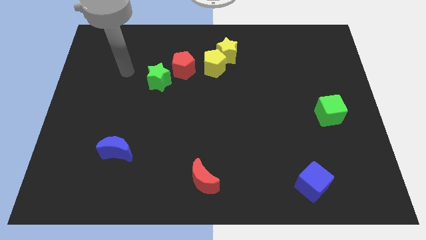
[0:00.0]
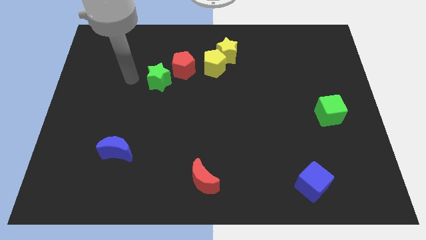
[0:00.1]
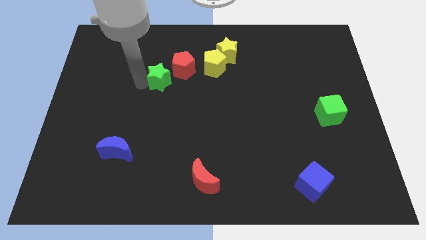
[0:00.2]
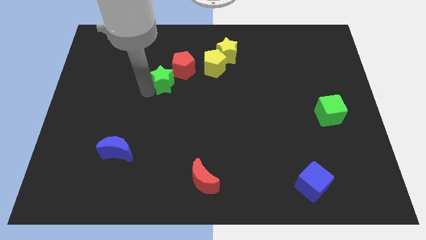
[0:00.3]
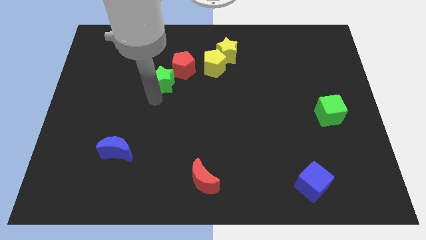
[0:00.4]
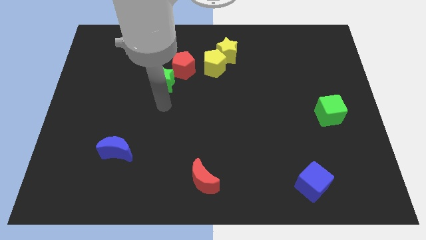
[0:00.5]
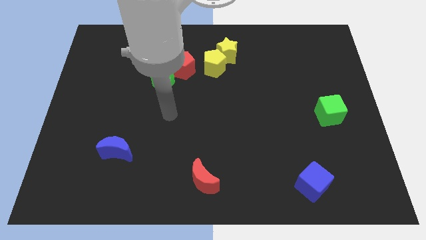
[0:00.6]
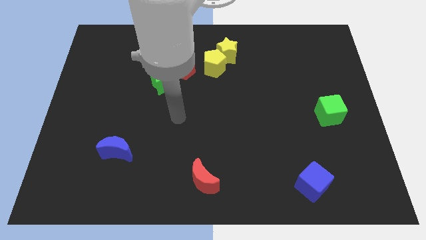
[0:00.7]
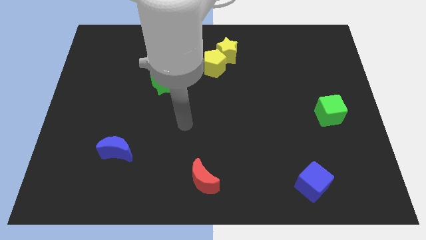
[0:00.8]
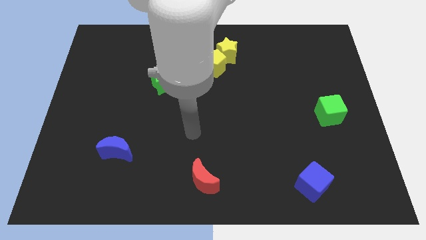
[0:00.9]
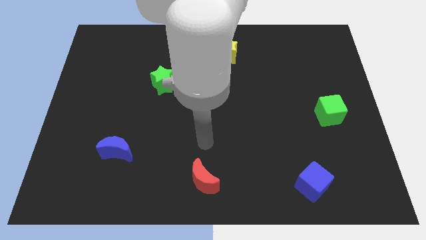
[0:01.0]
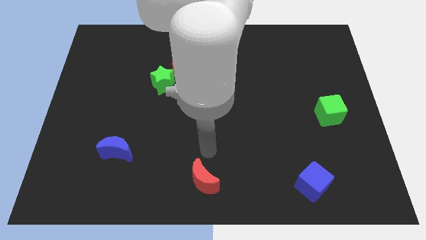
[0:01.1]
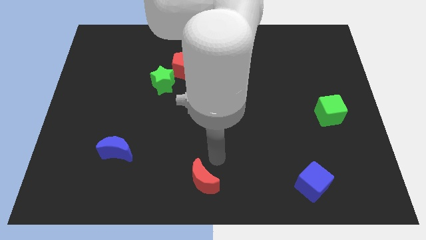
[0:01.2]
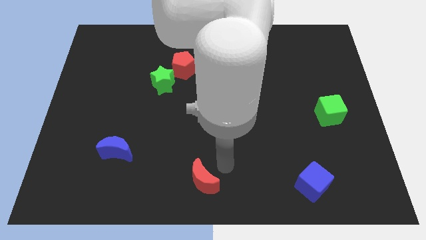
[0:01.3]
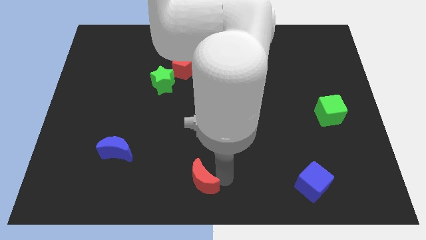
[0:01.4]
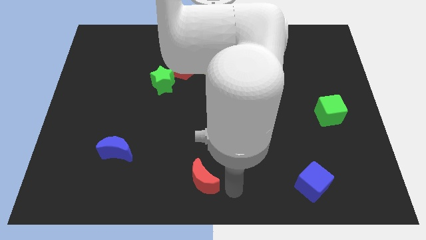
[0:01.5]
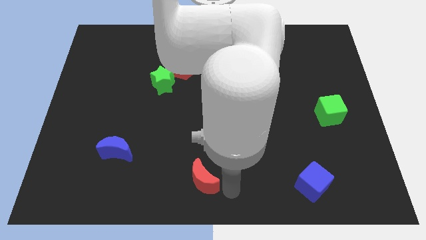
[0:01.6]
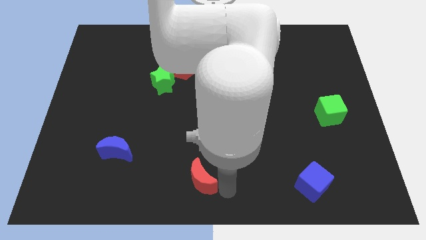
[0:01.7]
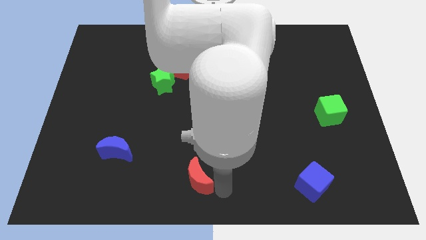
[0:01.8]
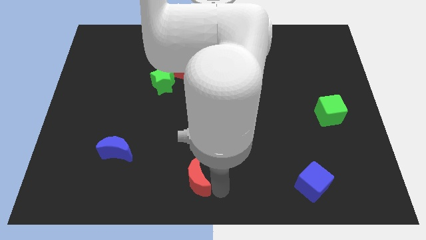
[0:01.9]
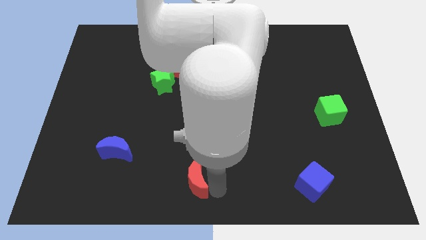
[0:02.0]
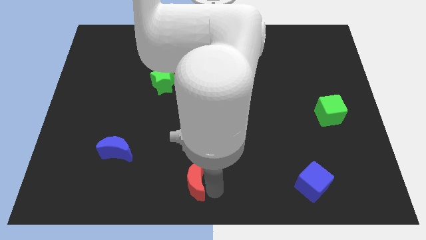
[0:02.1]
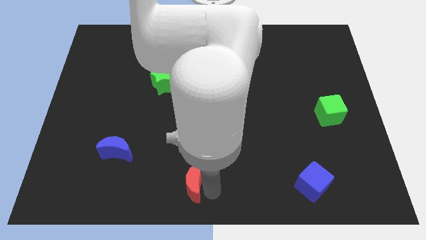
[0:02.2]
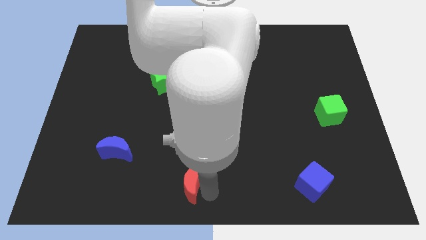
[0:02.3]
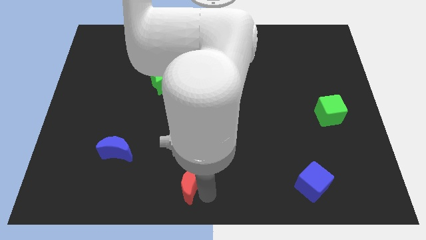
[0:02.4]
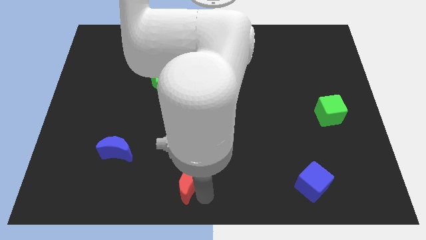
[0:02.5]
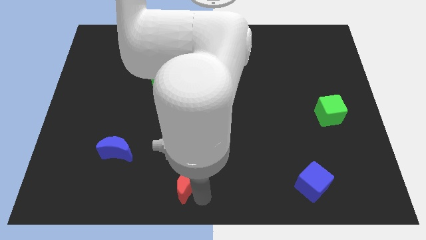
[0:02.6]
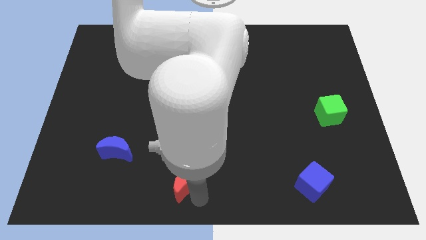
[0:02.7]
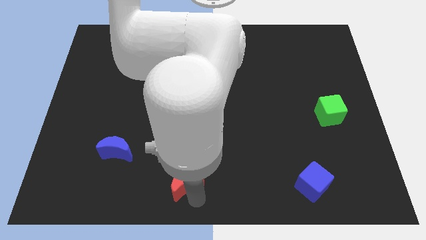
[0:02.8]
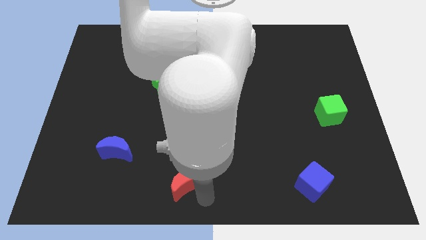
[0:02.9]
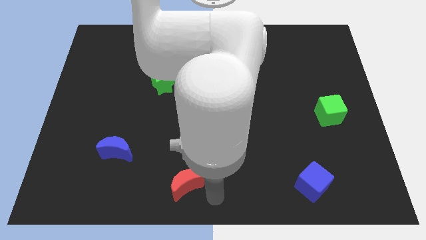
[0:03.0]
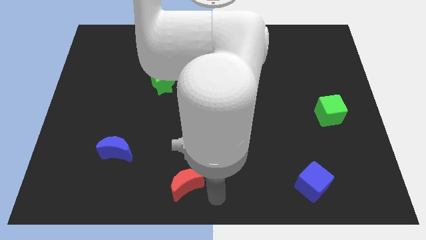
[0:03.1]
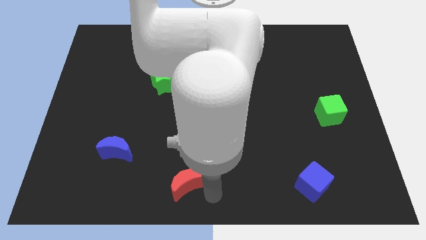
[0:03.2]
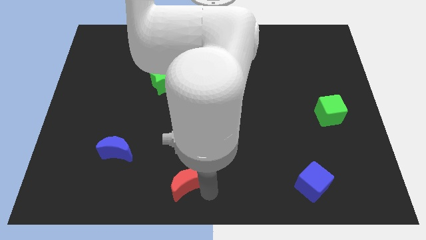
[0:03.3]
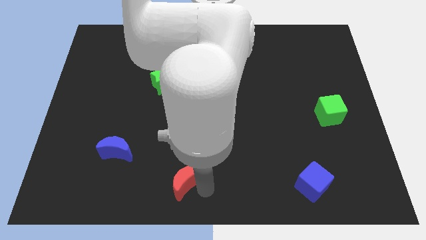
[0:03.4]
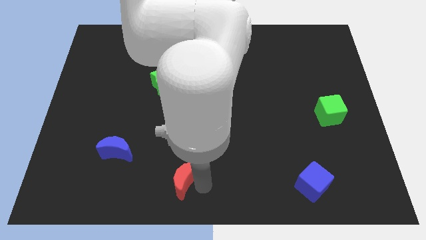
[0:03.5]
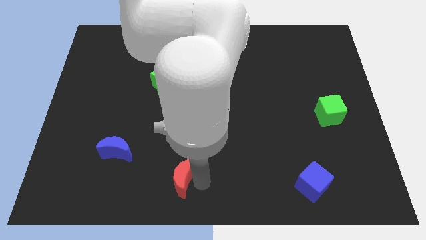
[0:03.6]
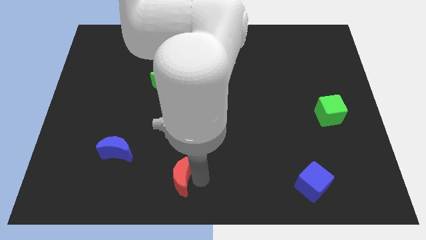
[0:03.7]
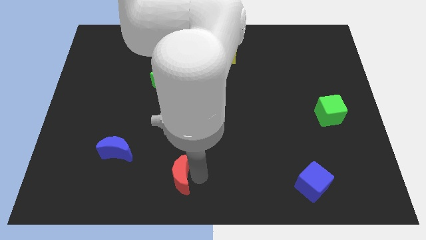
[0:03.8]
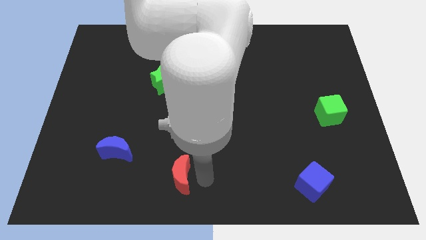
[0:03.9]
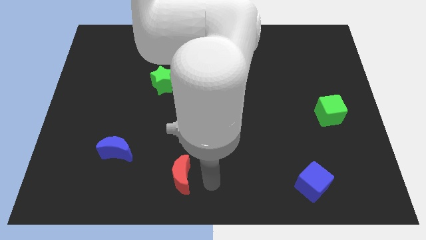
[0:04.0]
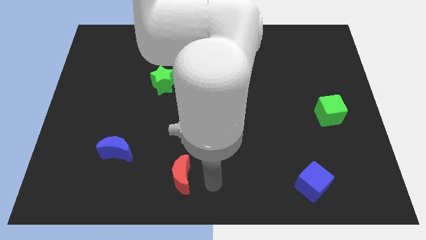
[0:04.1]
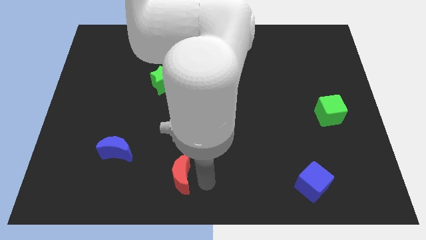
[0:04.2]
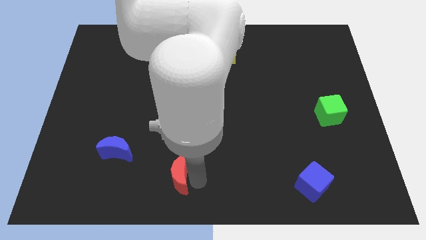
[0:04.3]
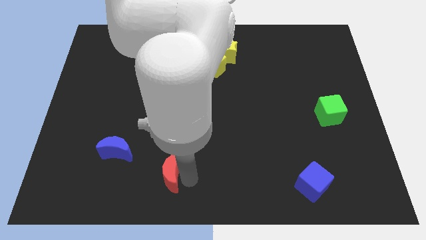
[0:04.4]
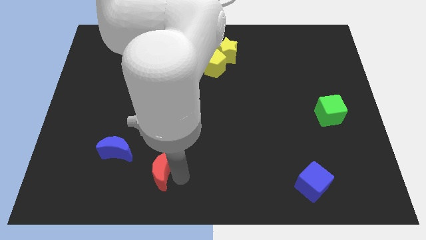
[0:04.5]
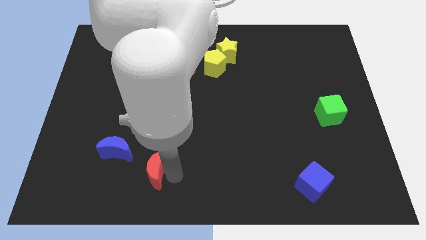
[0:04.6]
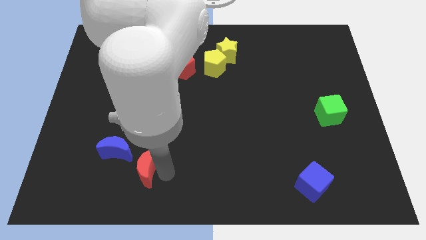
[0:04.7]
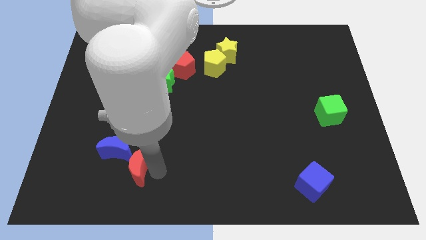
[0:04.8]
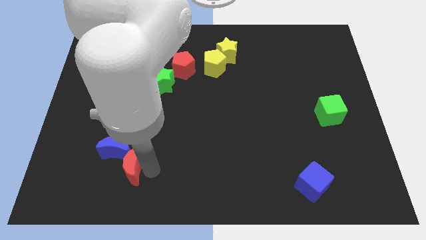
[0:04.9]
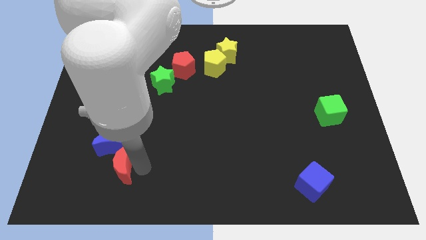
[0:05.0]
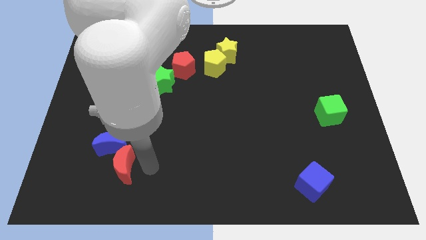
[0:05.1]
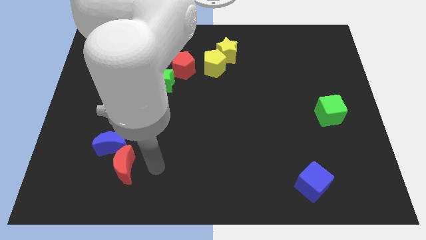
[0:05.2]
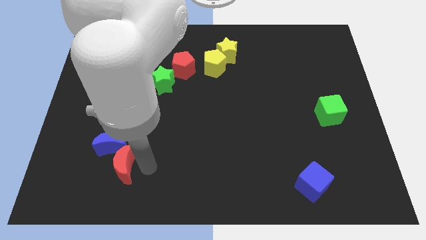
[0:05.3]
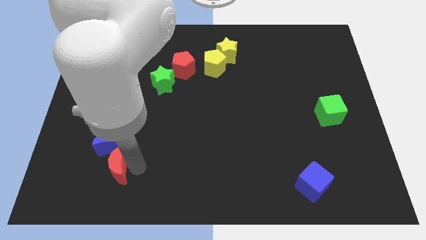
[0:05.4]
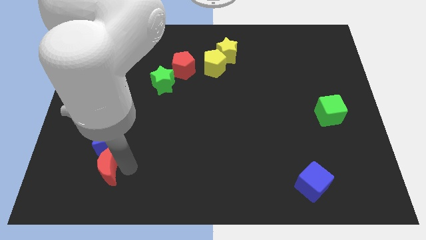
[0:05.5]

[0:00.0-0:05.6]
push the red moon to the bottom left of the blue moon

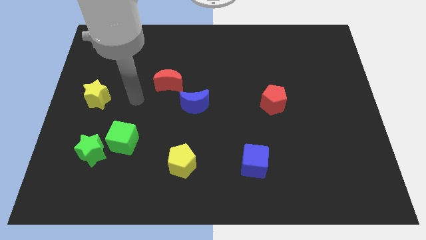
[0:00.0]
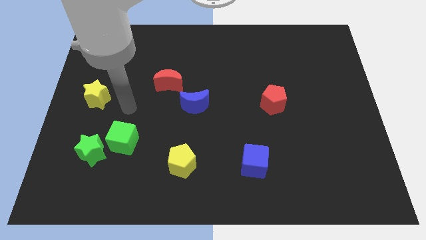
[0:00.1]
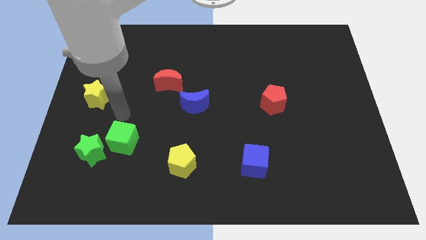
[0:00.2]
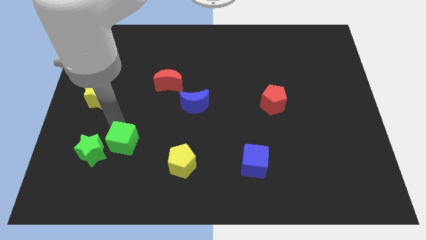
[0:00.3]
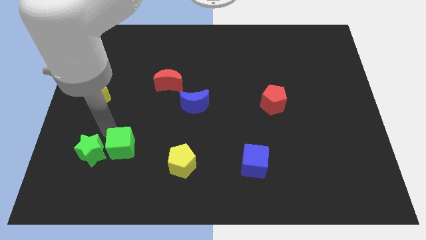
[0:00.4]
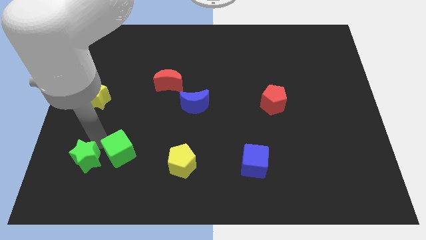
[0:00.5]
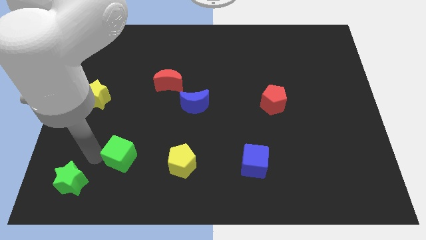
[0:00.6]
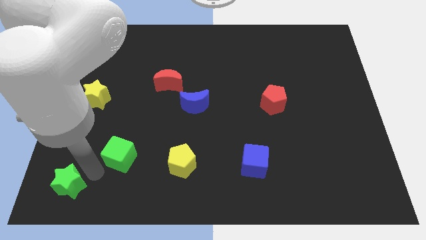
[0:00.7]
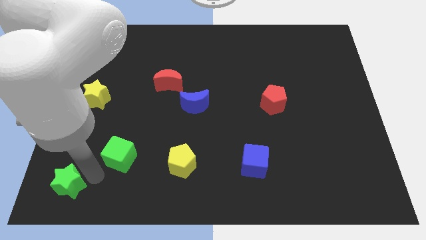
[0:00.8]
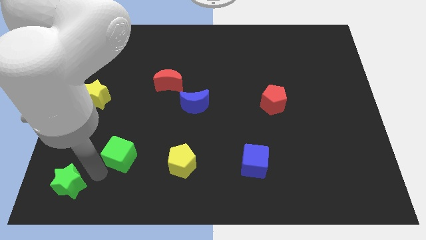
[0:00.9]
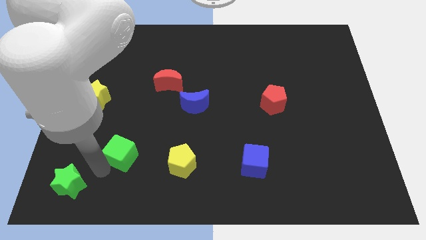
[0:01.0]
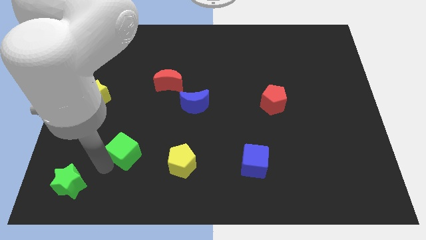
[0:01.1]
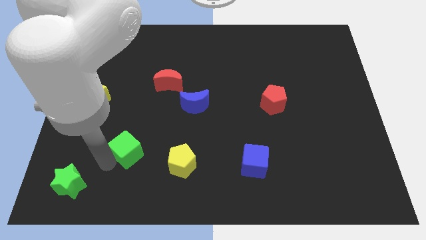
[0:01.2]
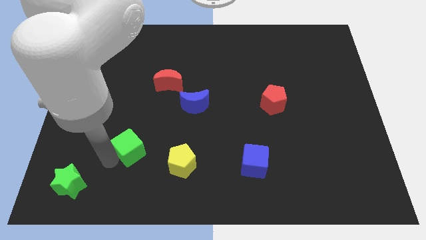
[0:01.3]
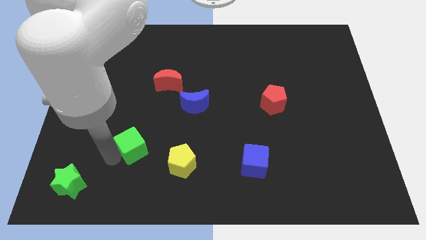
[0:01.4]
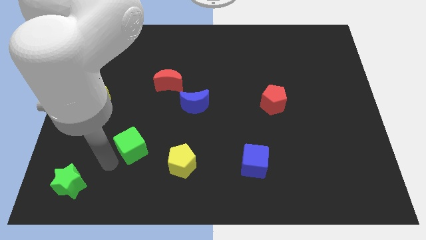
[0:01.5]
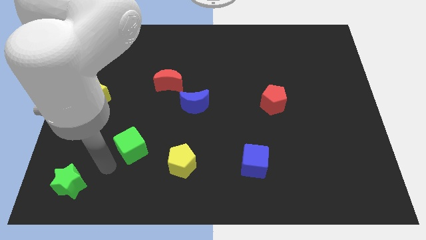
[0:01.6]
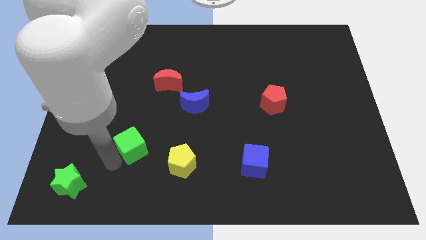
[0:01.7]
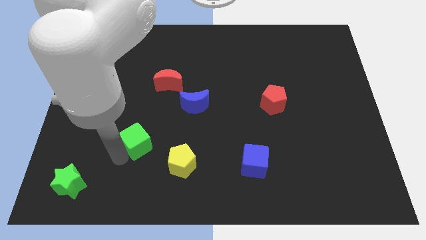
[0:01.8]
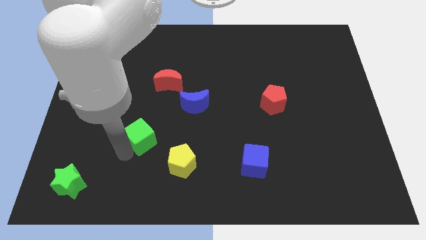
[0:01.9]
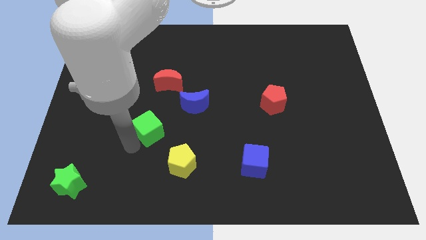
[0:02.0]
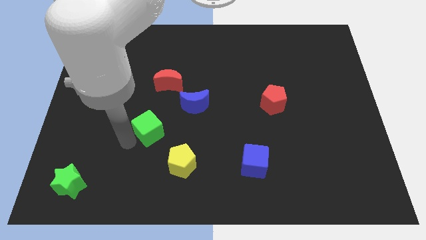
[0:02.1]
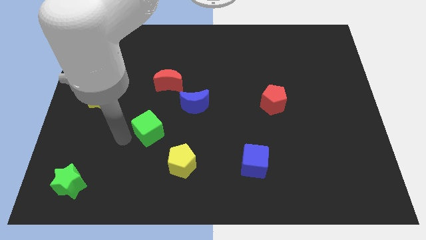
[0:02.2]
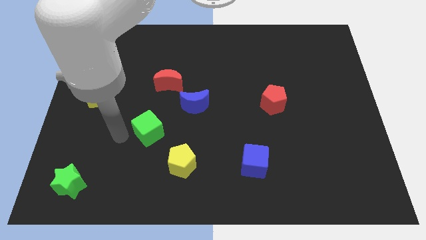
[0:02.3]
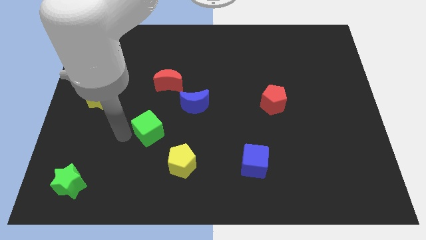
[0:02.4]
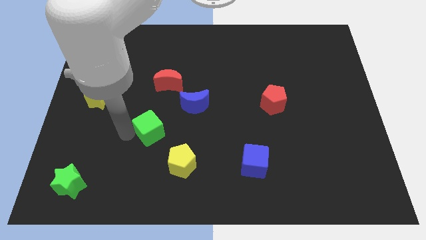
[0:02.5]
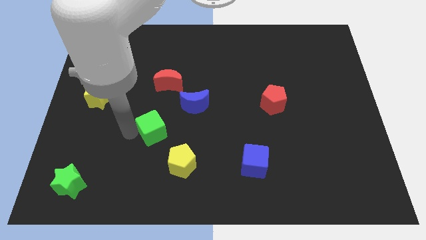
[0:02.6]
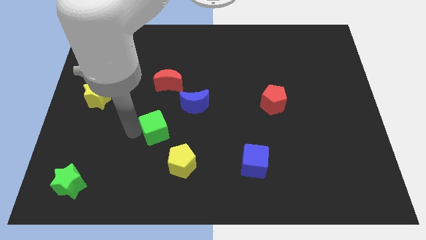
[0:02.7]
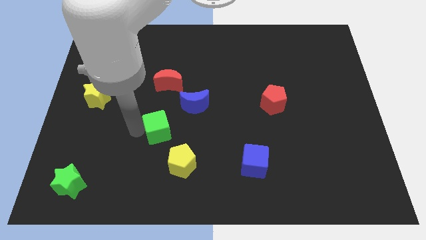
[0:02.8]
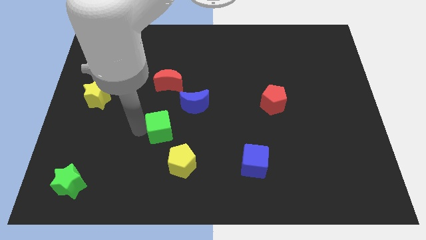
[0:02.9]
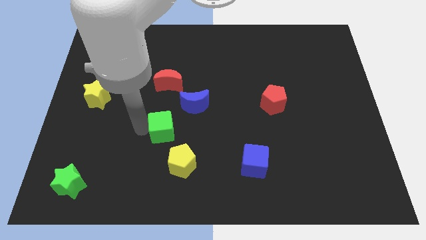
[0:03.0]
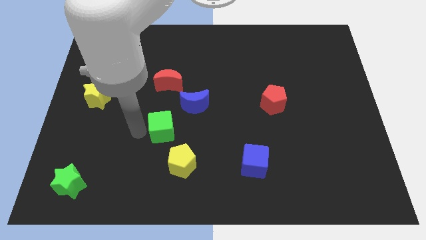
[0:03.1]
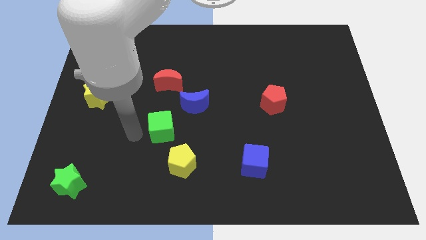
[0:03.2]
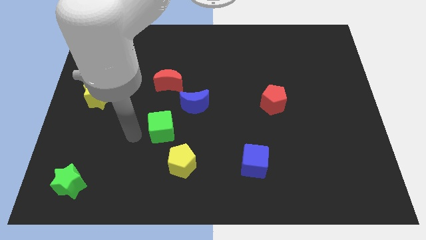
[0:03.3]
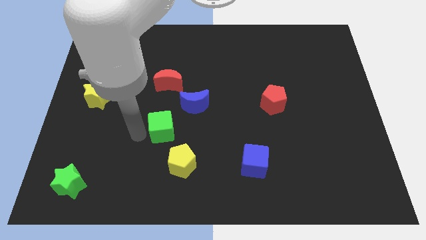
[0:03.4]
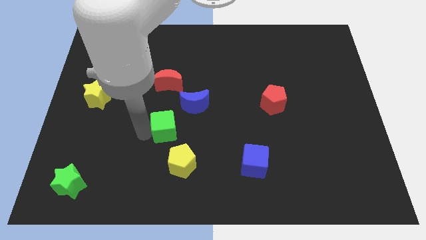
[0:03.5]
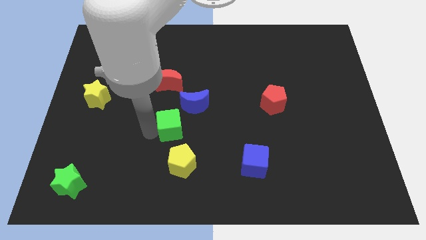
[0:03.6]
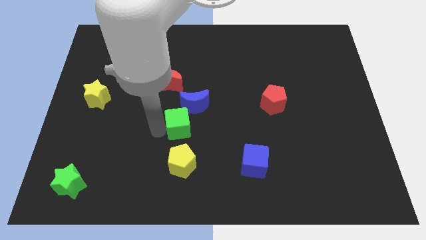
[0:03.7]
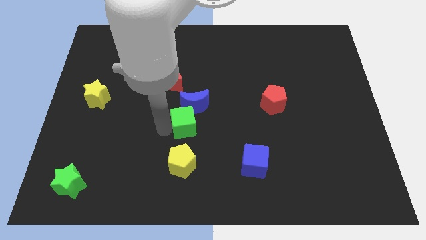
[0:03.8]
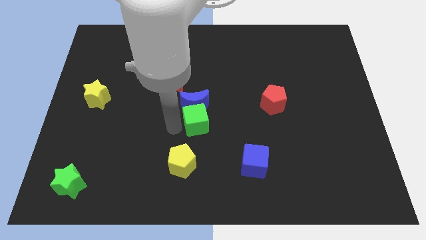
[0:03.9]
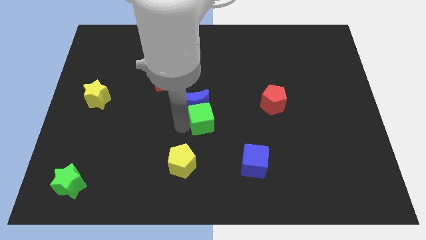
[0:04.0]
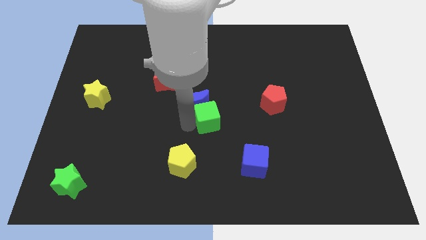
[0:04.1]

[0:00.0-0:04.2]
slide the green cube to the right side of the blue moon
